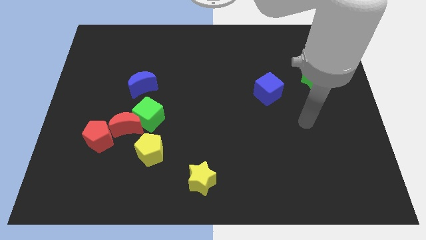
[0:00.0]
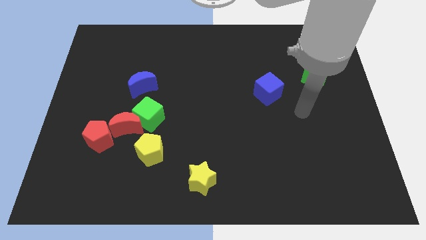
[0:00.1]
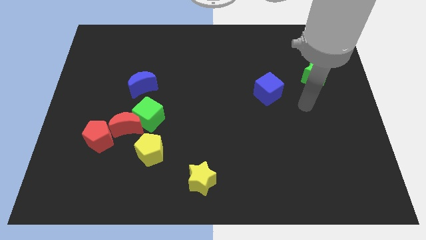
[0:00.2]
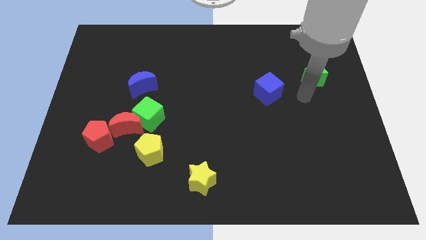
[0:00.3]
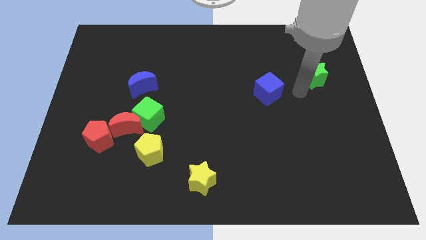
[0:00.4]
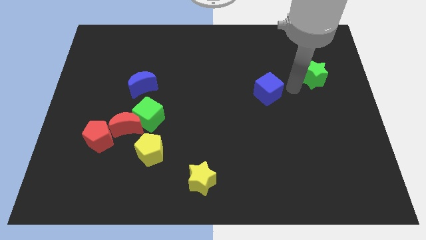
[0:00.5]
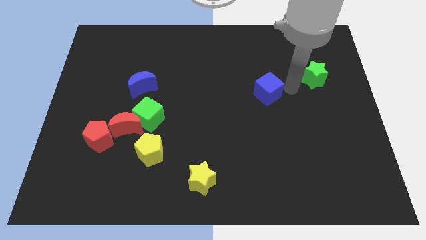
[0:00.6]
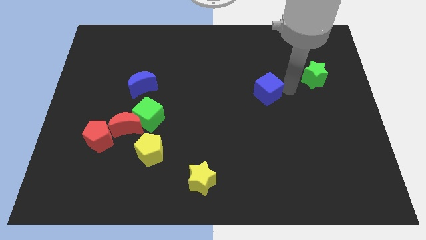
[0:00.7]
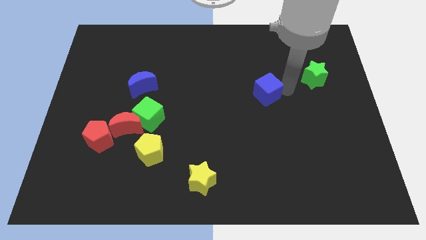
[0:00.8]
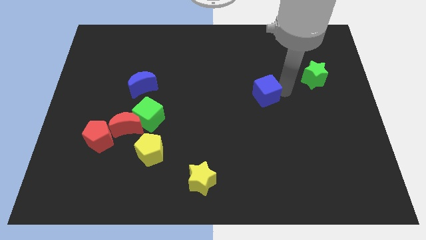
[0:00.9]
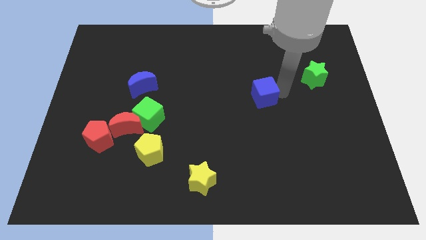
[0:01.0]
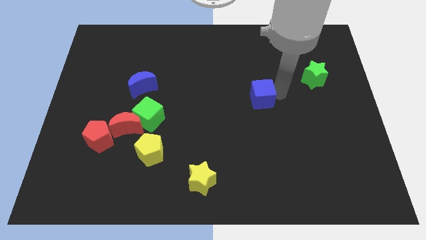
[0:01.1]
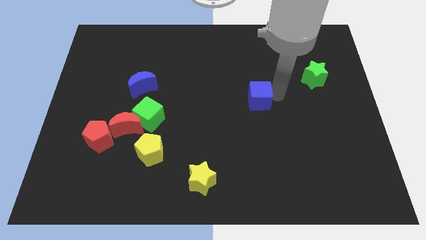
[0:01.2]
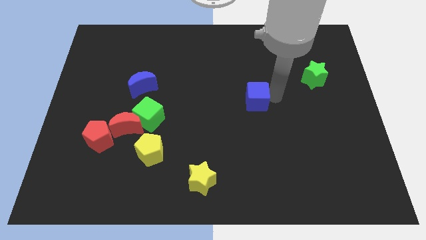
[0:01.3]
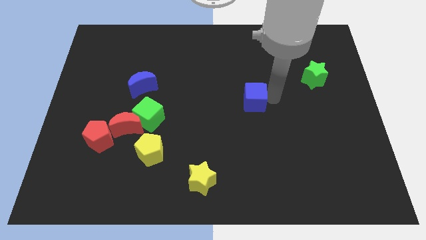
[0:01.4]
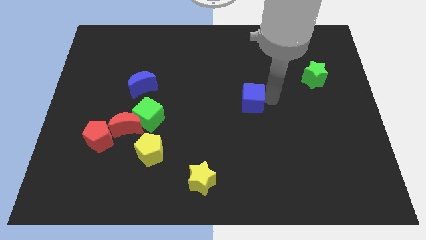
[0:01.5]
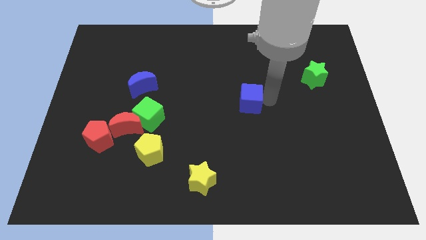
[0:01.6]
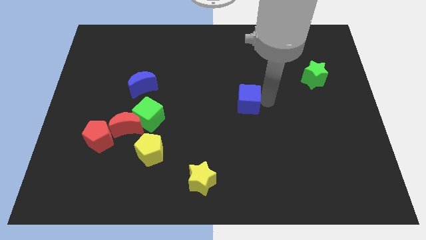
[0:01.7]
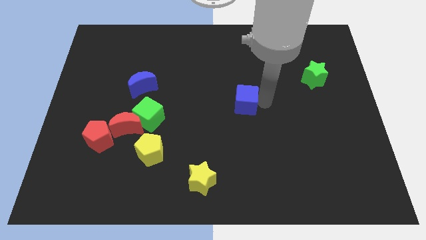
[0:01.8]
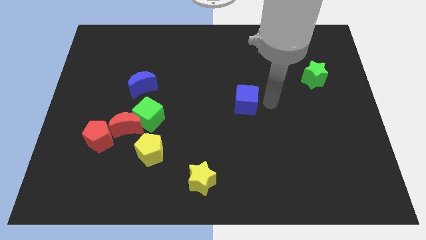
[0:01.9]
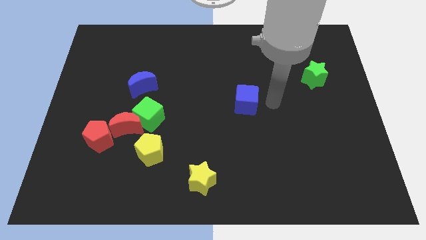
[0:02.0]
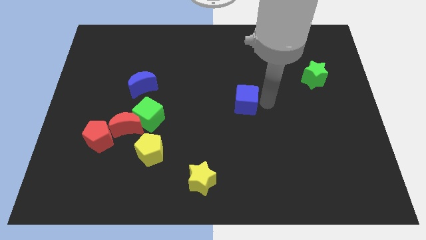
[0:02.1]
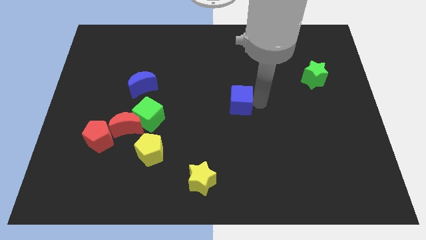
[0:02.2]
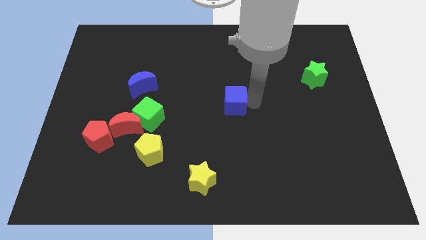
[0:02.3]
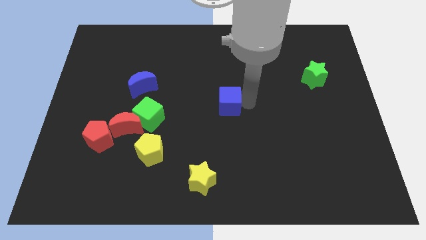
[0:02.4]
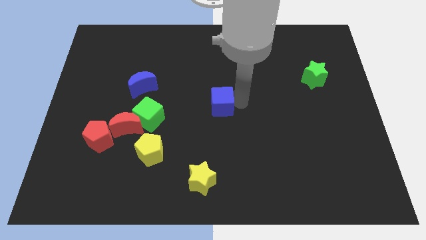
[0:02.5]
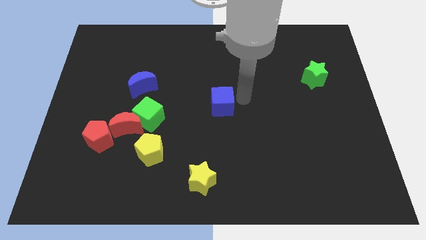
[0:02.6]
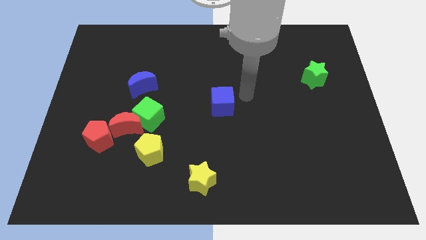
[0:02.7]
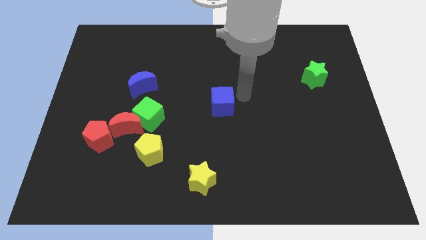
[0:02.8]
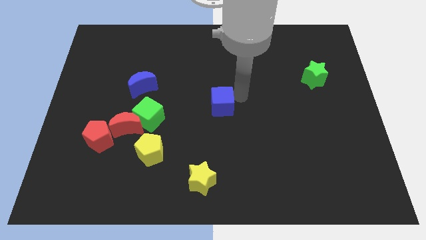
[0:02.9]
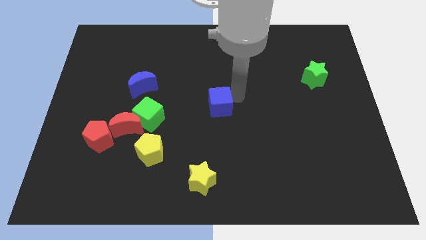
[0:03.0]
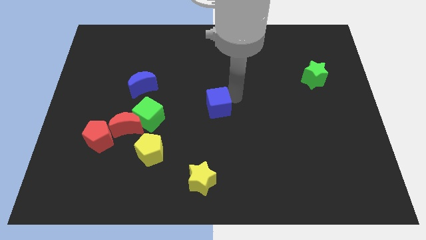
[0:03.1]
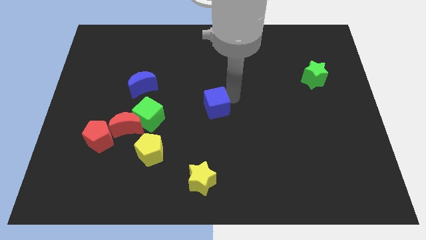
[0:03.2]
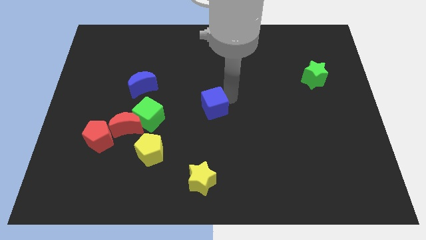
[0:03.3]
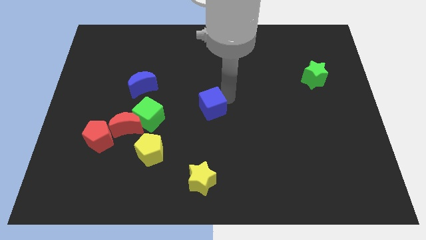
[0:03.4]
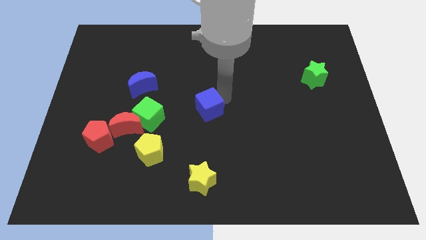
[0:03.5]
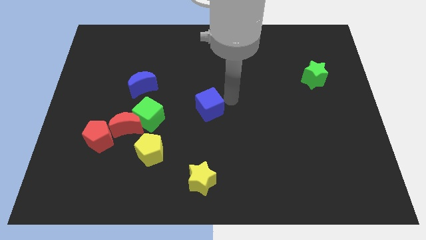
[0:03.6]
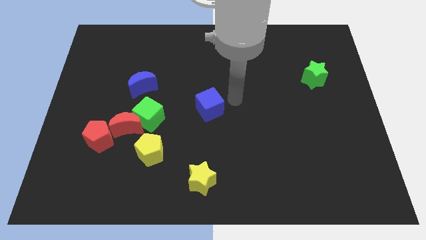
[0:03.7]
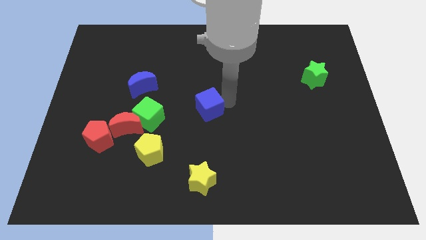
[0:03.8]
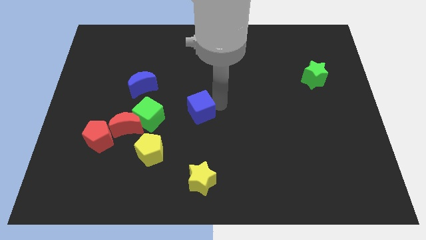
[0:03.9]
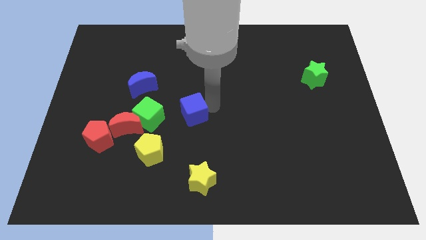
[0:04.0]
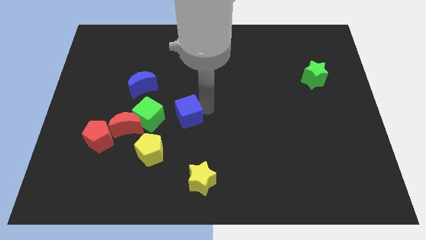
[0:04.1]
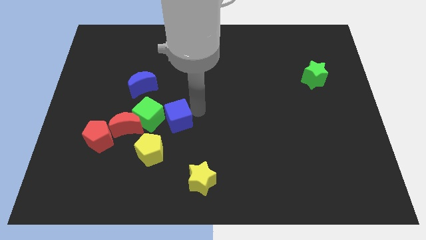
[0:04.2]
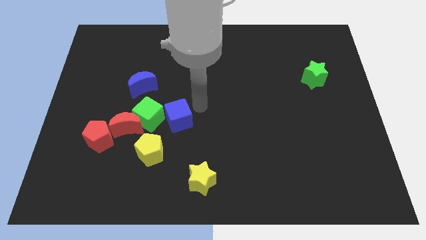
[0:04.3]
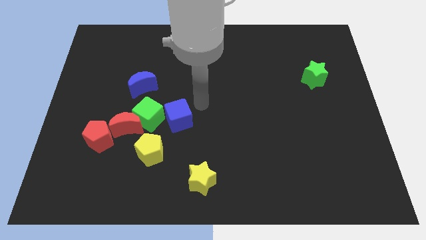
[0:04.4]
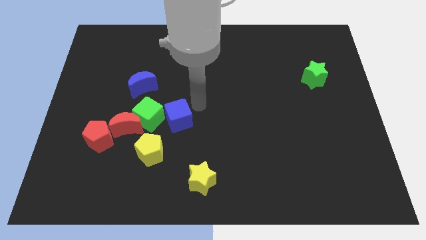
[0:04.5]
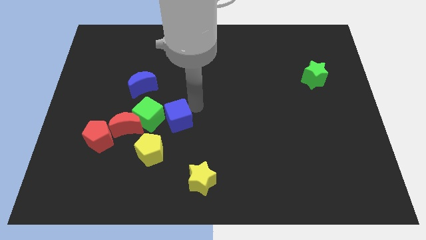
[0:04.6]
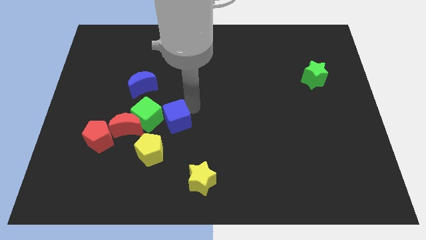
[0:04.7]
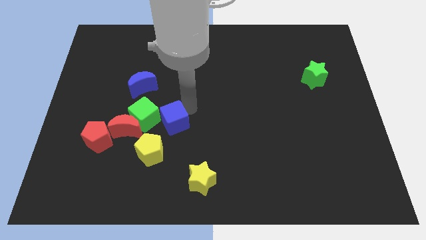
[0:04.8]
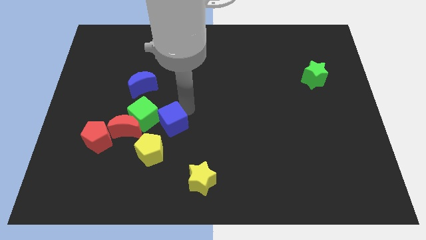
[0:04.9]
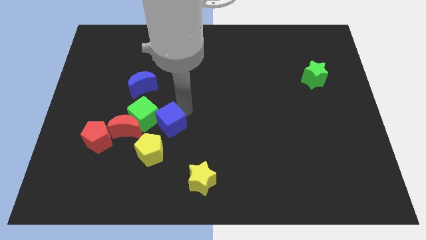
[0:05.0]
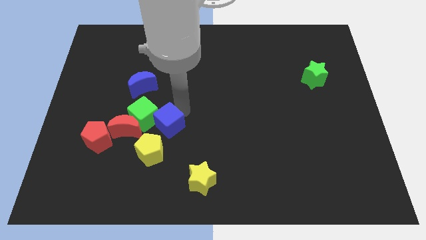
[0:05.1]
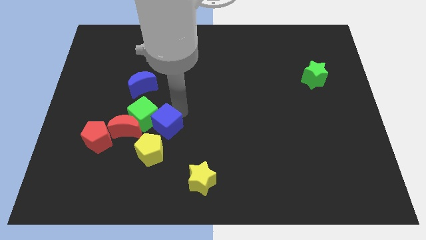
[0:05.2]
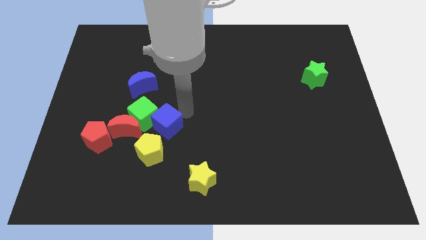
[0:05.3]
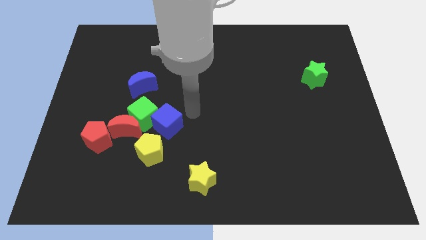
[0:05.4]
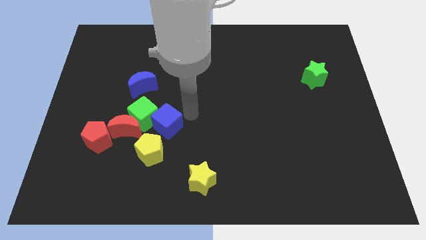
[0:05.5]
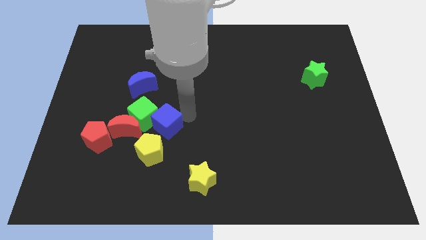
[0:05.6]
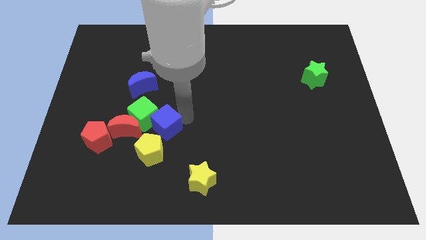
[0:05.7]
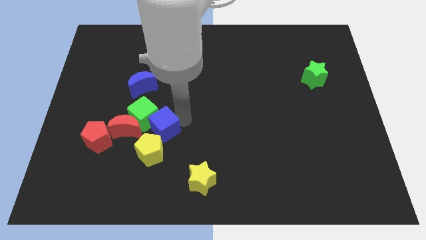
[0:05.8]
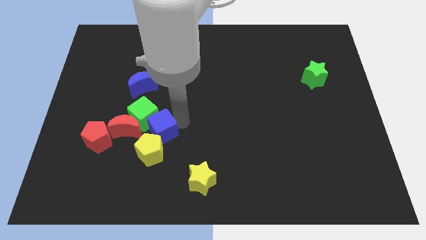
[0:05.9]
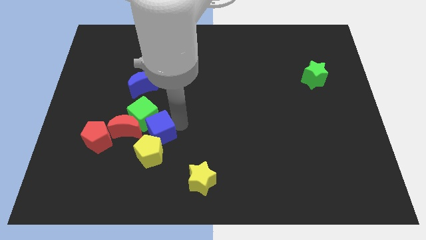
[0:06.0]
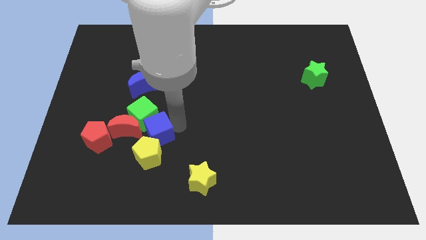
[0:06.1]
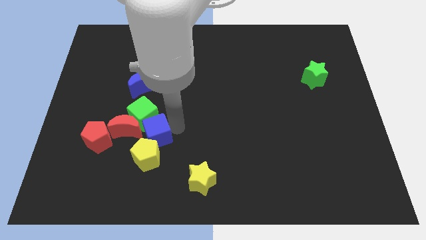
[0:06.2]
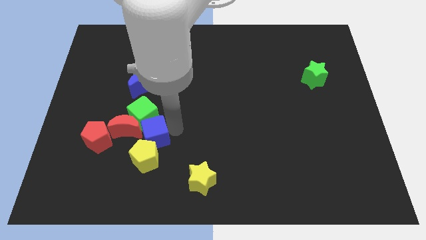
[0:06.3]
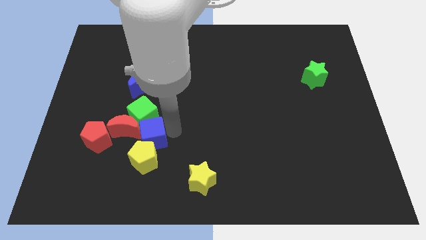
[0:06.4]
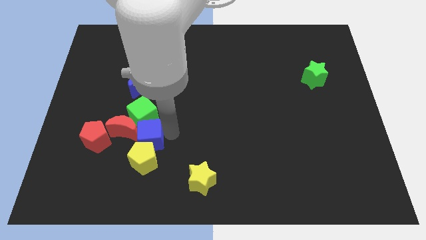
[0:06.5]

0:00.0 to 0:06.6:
slide the blue cube towards the red moon
